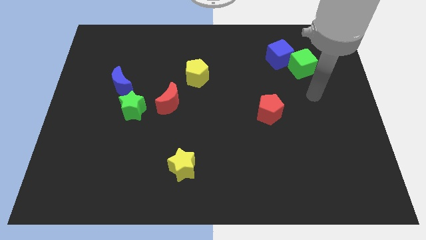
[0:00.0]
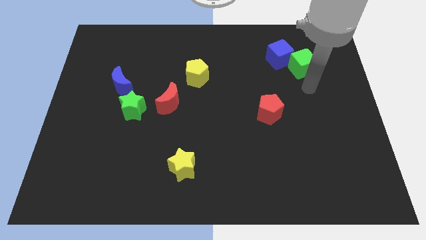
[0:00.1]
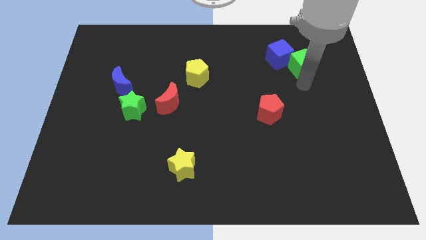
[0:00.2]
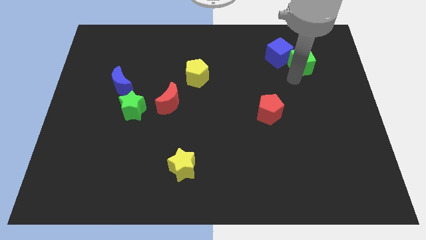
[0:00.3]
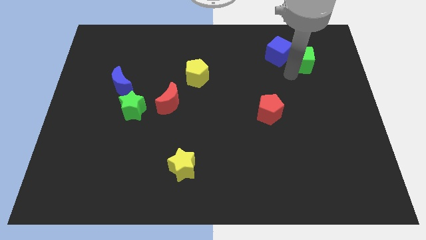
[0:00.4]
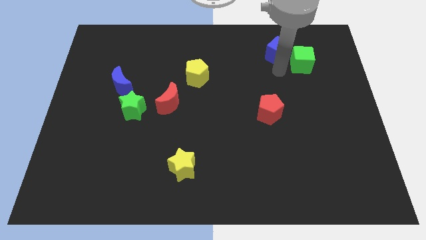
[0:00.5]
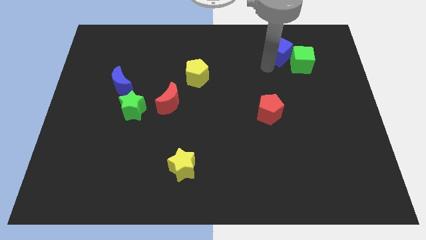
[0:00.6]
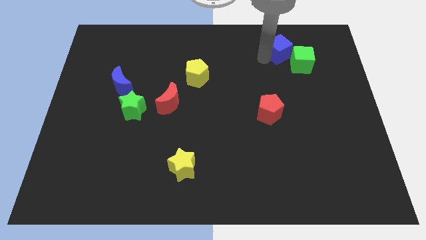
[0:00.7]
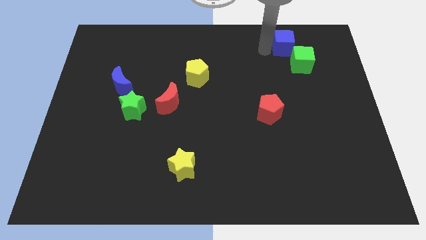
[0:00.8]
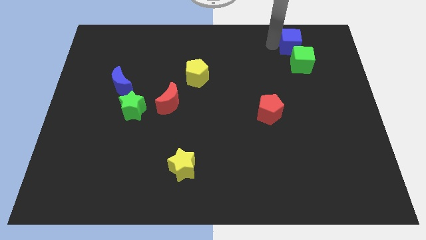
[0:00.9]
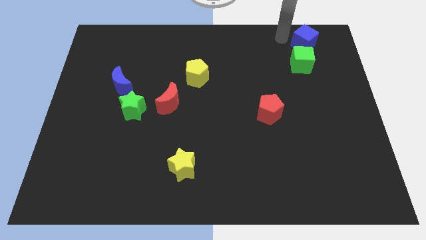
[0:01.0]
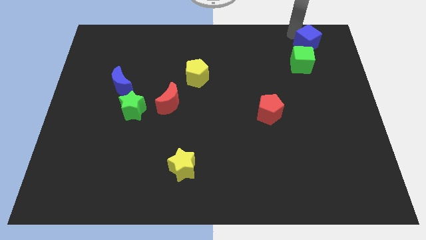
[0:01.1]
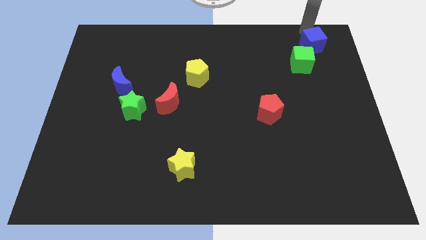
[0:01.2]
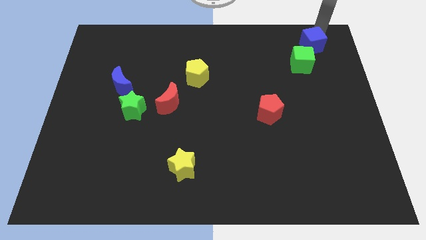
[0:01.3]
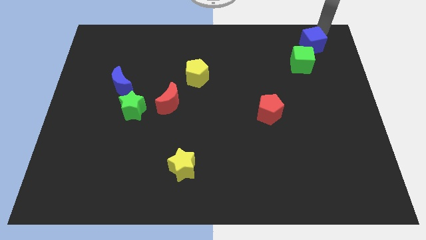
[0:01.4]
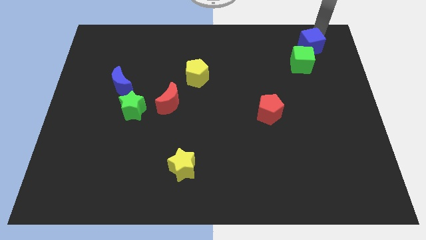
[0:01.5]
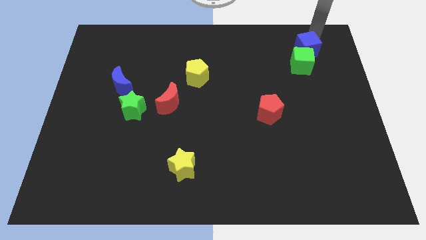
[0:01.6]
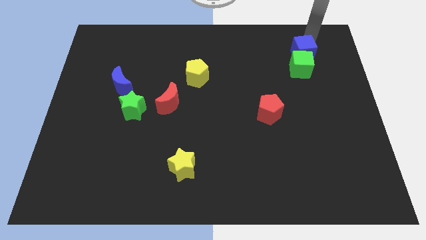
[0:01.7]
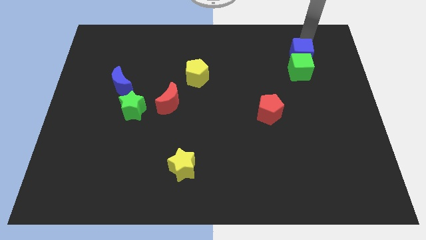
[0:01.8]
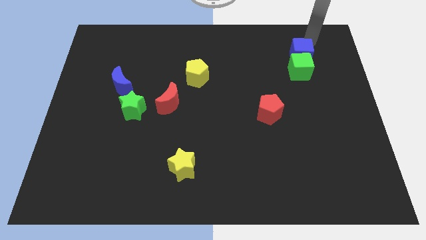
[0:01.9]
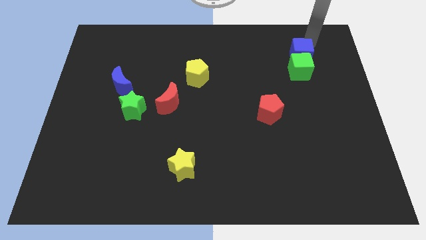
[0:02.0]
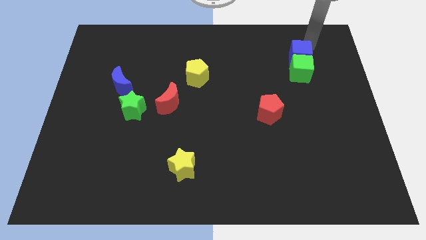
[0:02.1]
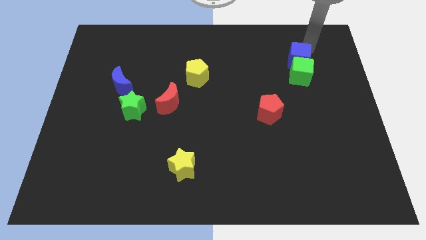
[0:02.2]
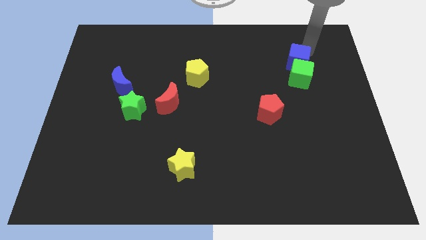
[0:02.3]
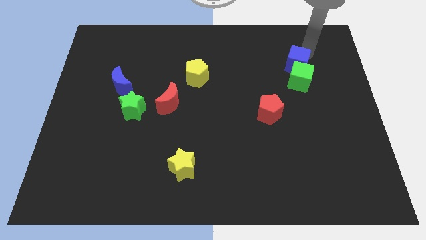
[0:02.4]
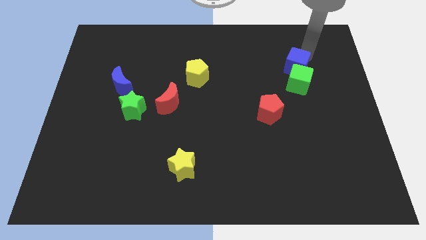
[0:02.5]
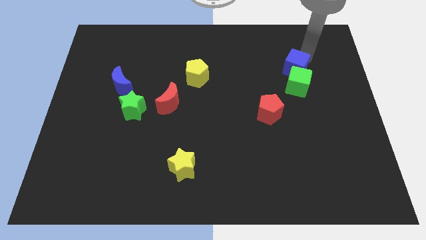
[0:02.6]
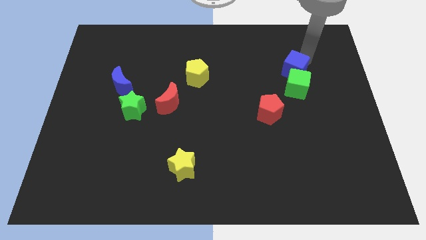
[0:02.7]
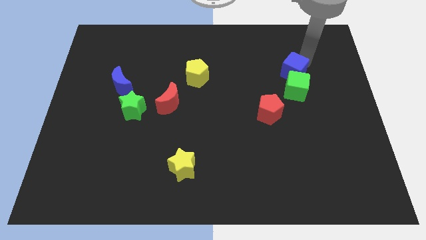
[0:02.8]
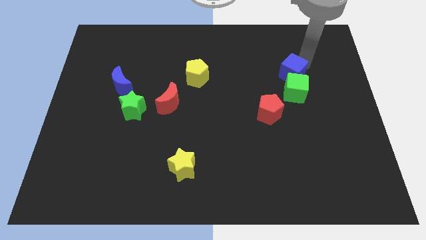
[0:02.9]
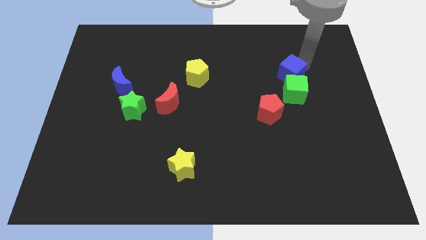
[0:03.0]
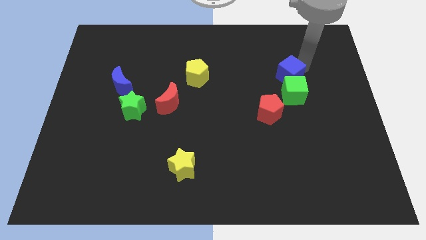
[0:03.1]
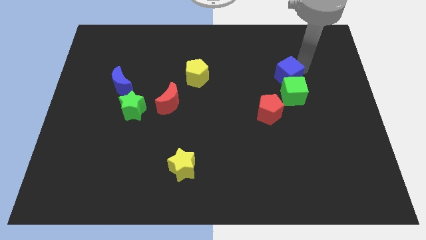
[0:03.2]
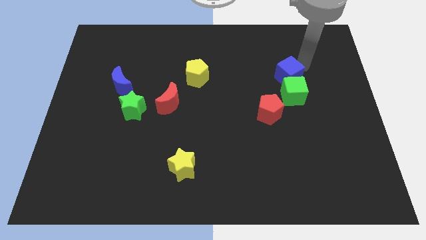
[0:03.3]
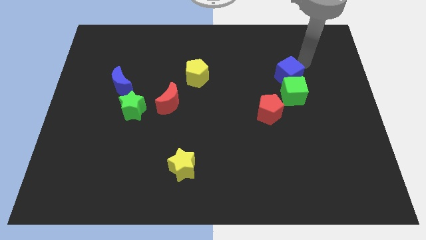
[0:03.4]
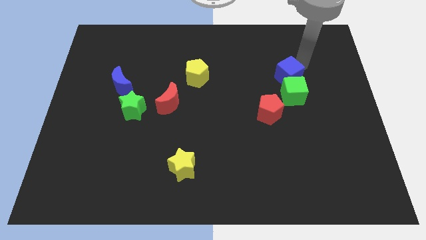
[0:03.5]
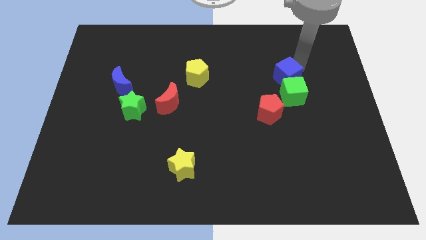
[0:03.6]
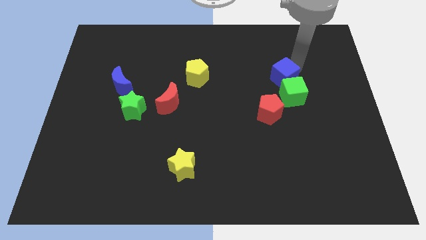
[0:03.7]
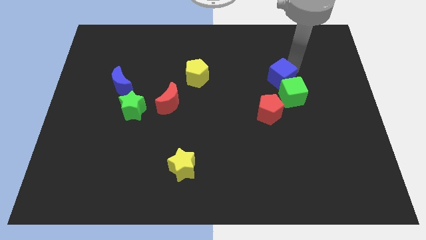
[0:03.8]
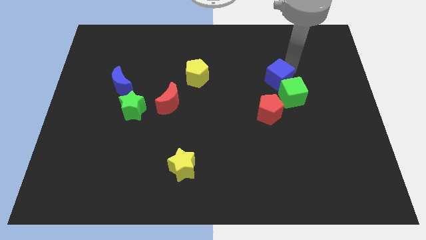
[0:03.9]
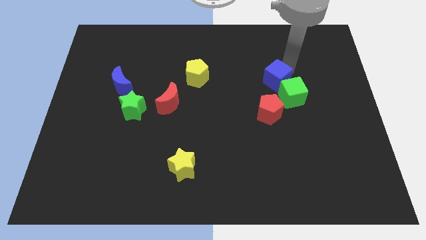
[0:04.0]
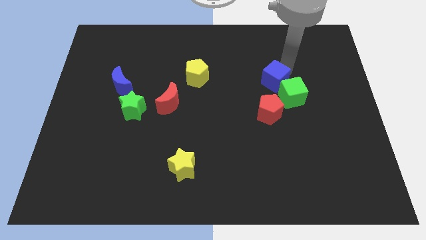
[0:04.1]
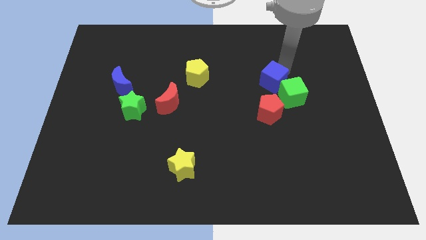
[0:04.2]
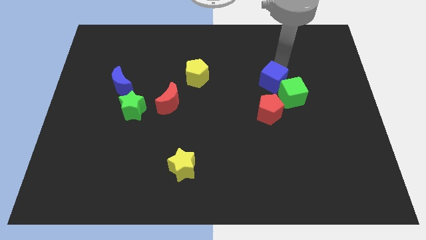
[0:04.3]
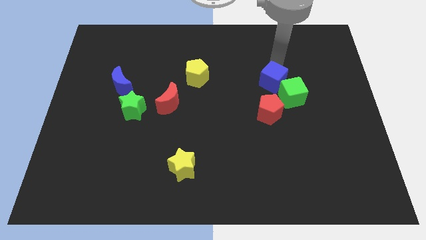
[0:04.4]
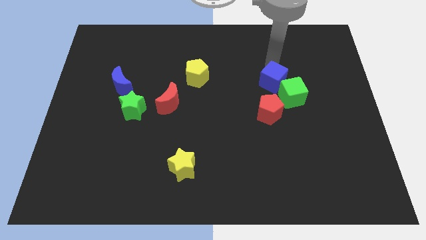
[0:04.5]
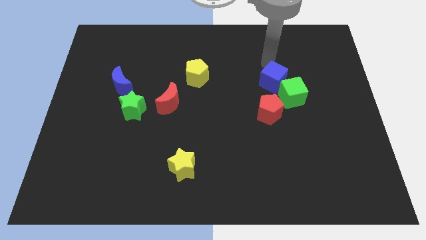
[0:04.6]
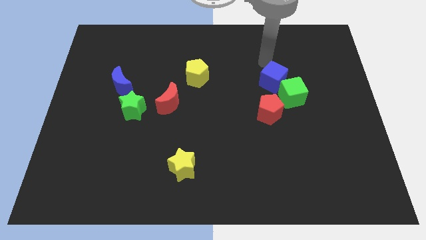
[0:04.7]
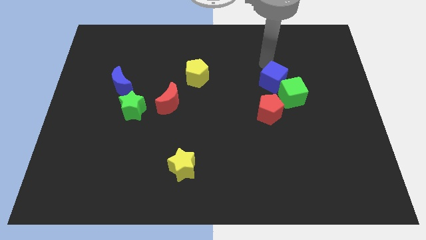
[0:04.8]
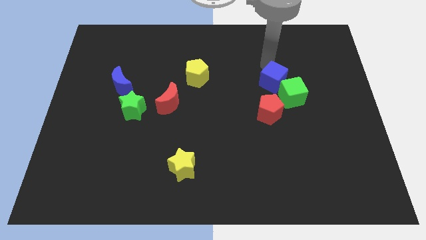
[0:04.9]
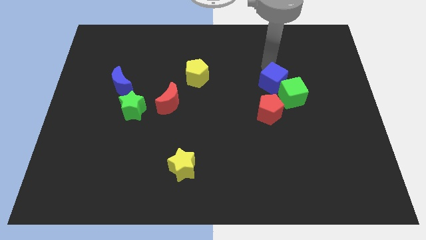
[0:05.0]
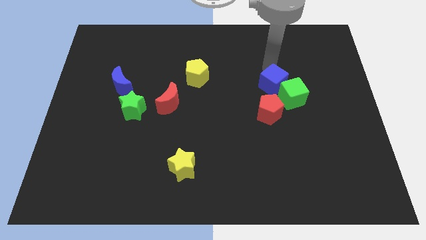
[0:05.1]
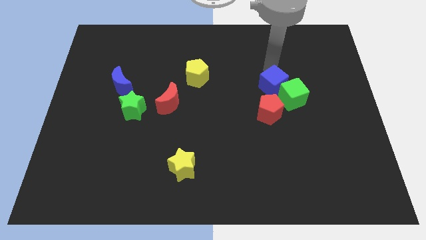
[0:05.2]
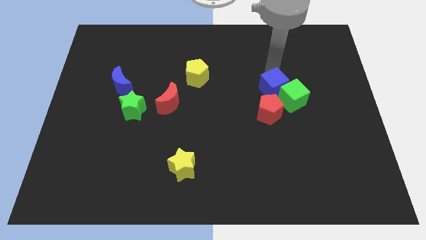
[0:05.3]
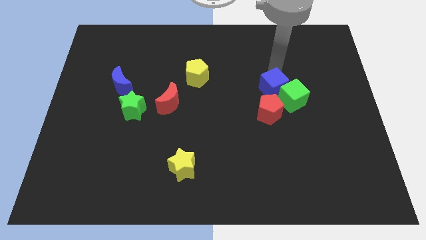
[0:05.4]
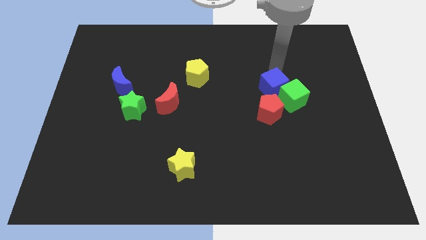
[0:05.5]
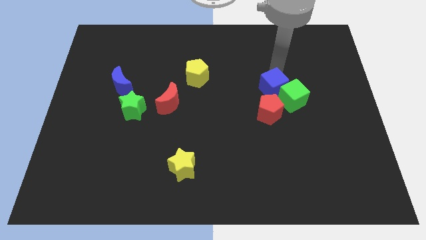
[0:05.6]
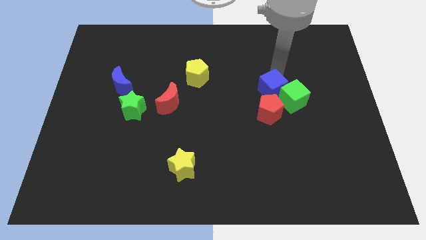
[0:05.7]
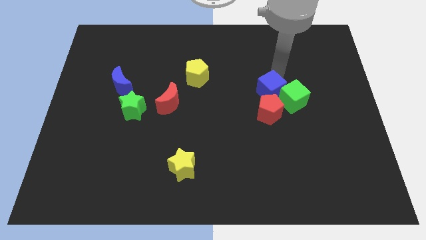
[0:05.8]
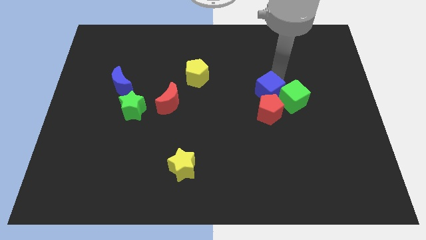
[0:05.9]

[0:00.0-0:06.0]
push the blue cube towards the red pentagon

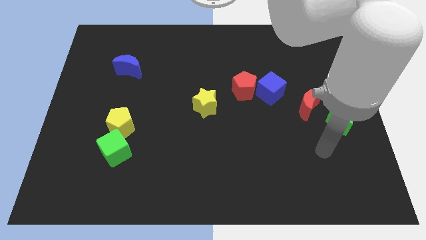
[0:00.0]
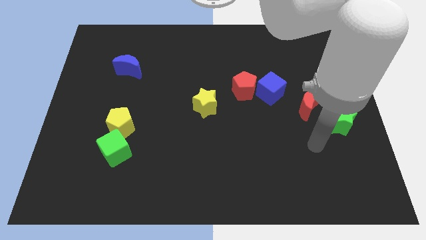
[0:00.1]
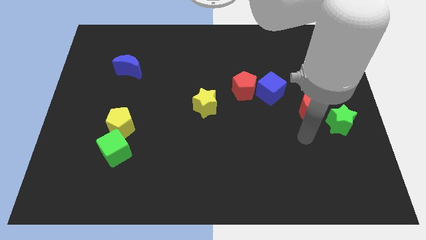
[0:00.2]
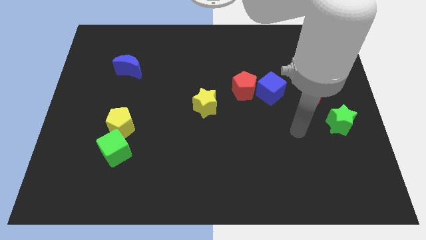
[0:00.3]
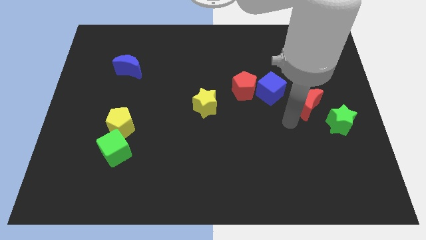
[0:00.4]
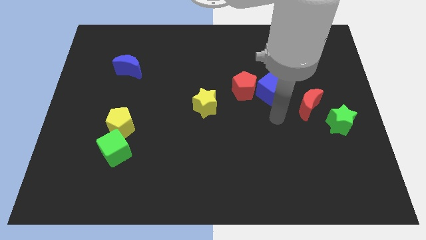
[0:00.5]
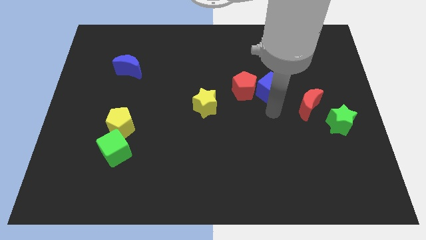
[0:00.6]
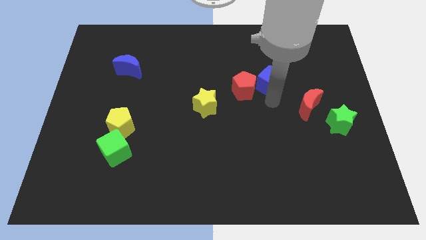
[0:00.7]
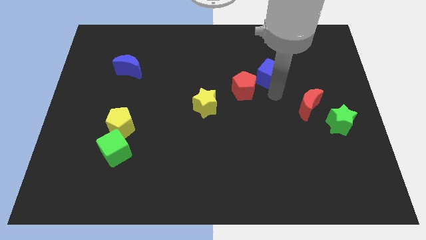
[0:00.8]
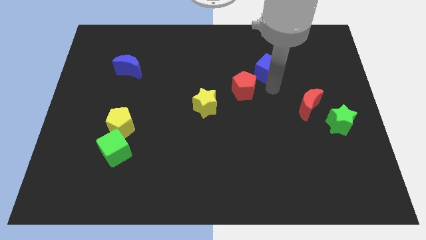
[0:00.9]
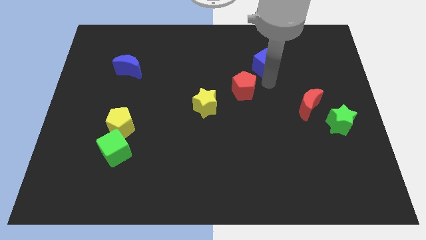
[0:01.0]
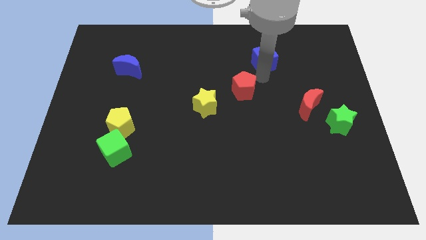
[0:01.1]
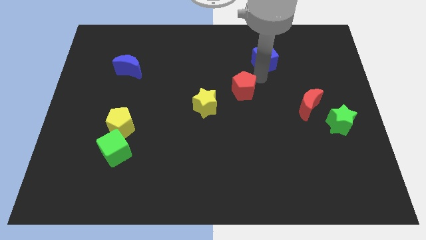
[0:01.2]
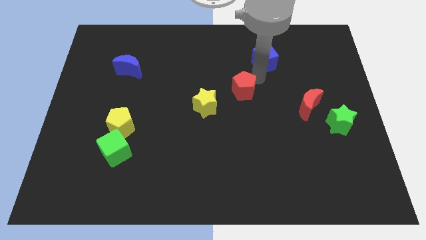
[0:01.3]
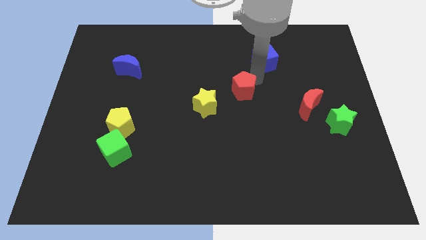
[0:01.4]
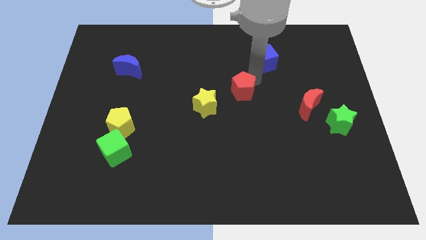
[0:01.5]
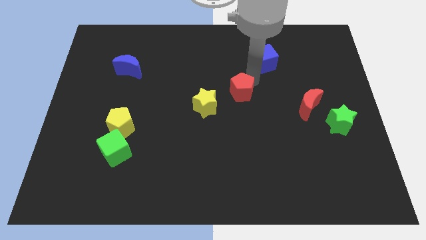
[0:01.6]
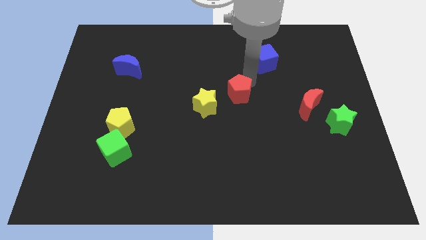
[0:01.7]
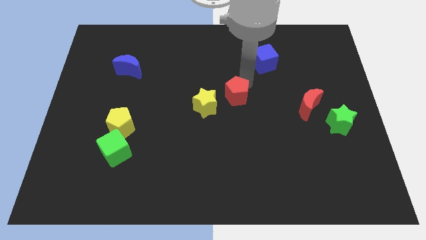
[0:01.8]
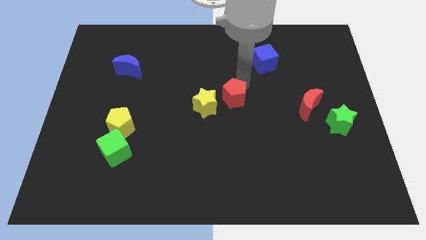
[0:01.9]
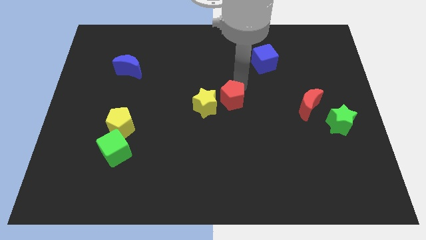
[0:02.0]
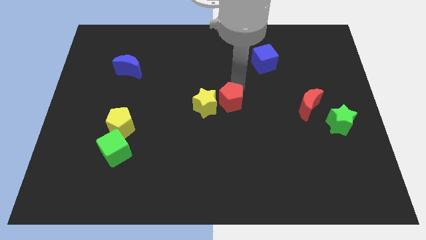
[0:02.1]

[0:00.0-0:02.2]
put the red pentagon to the yellow star
